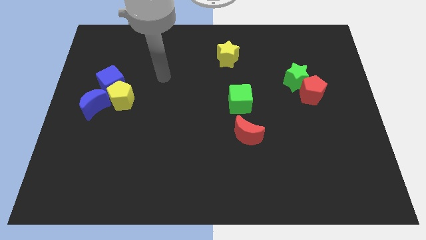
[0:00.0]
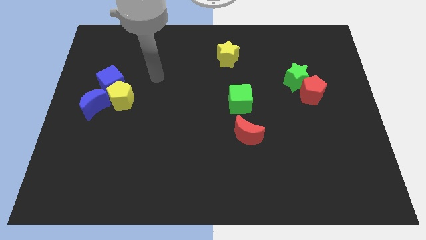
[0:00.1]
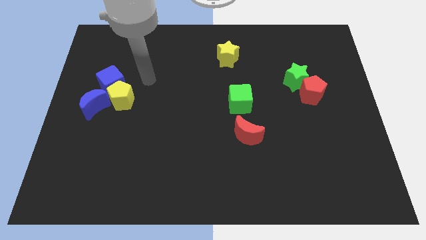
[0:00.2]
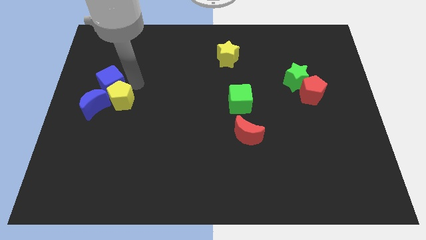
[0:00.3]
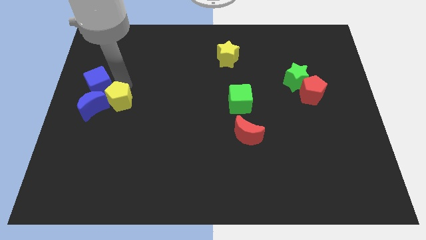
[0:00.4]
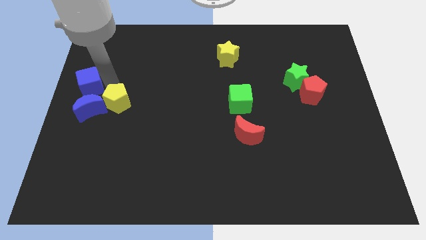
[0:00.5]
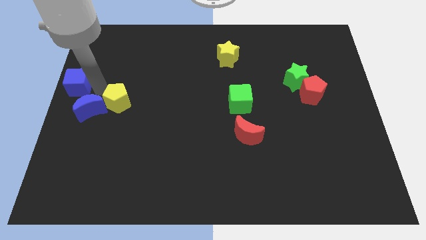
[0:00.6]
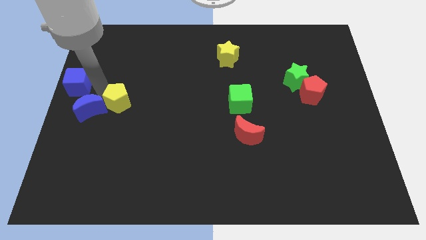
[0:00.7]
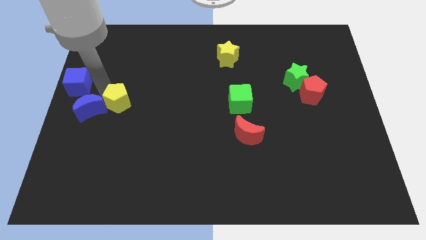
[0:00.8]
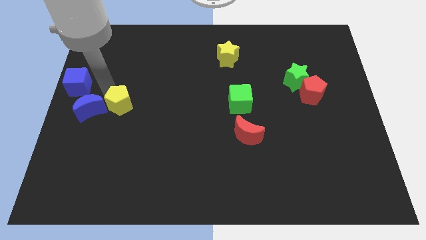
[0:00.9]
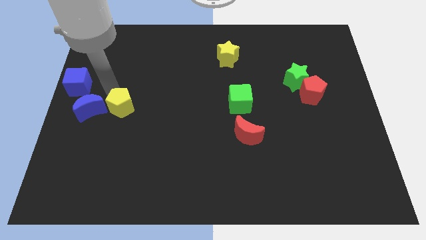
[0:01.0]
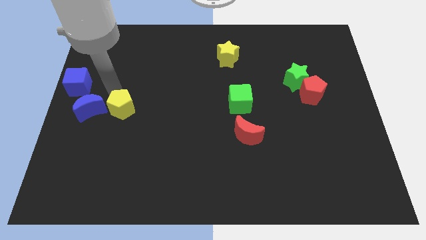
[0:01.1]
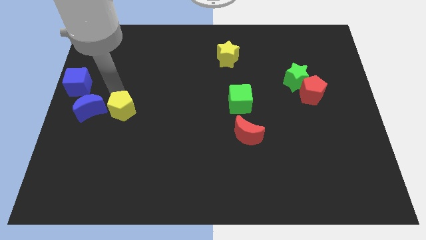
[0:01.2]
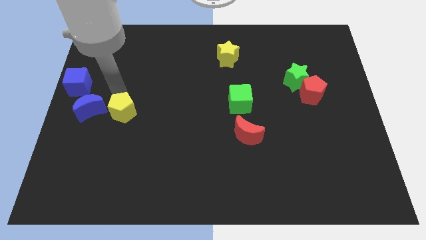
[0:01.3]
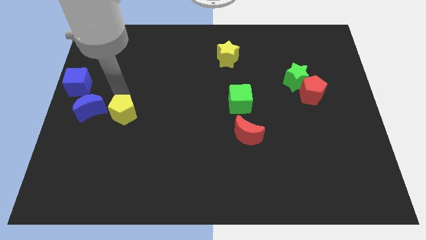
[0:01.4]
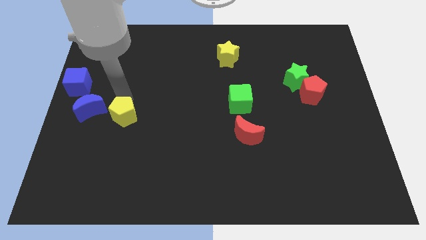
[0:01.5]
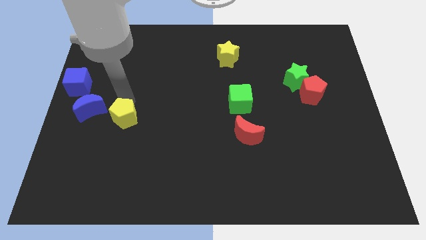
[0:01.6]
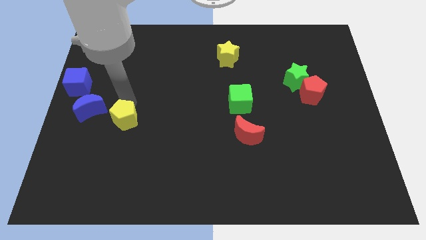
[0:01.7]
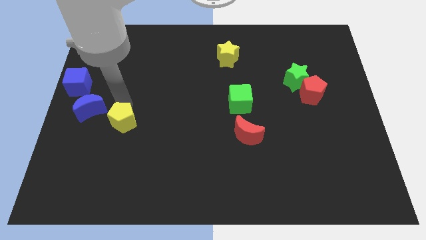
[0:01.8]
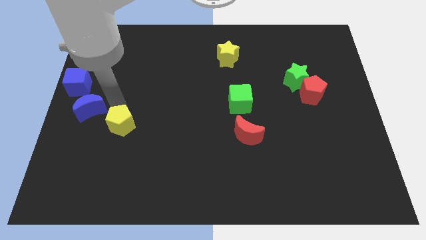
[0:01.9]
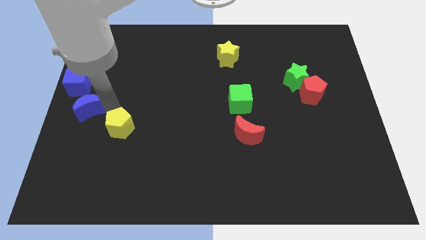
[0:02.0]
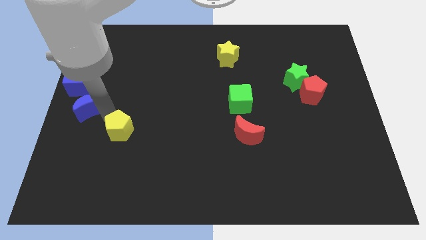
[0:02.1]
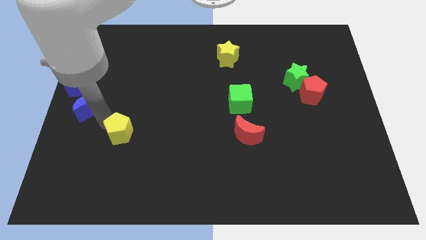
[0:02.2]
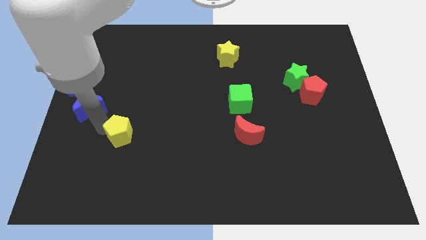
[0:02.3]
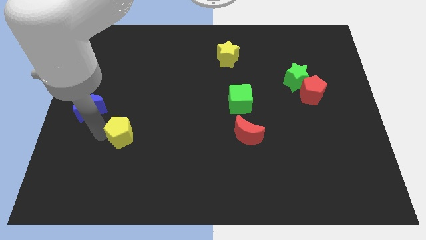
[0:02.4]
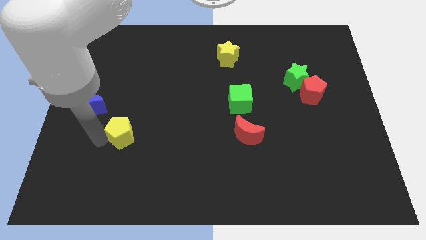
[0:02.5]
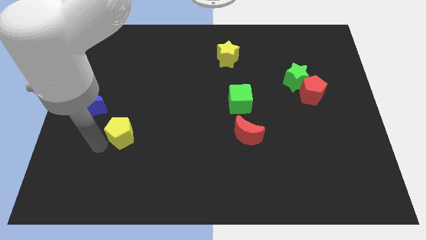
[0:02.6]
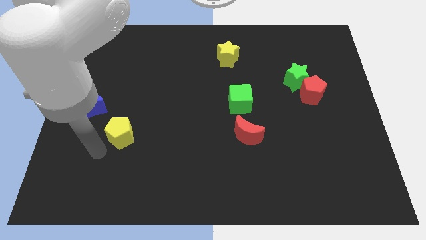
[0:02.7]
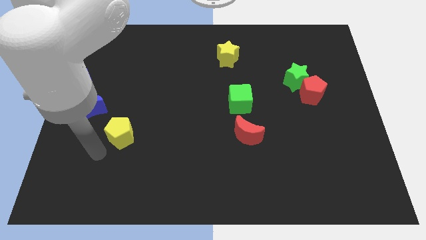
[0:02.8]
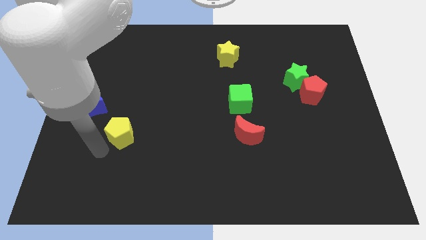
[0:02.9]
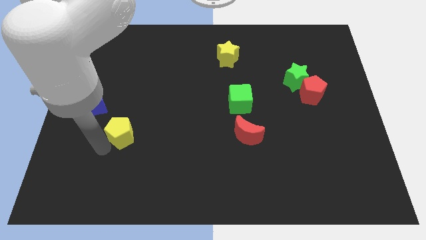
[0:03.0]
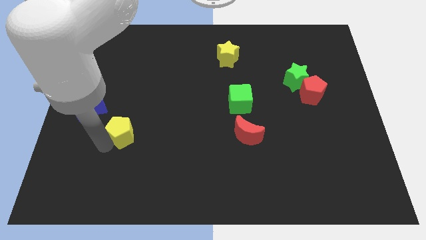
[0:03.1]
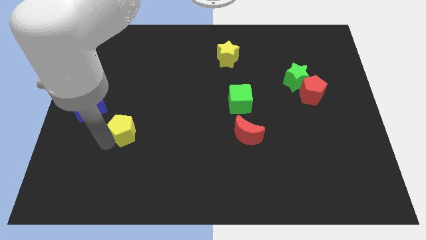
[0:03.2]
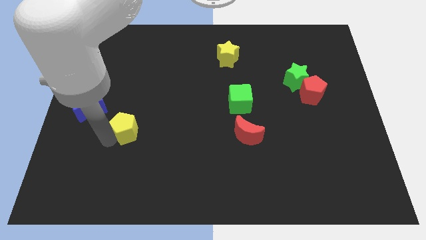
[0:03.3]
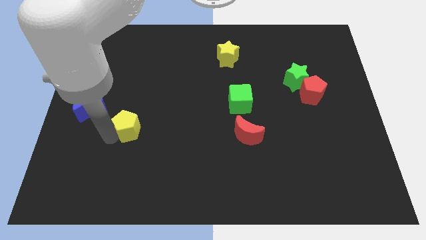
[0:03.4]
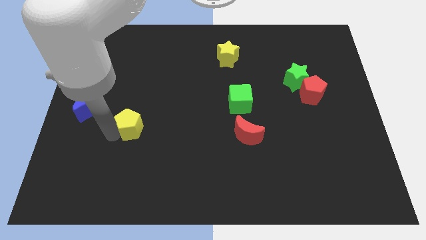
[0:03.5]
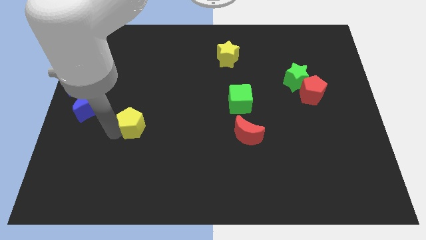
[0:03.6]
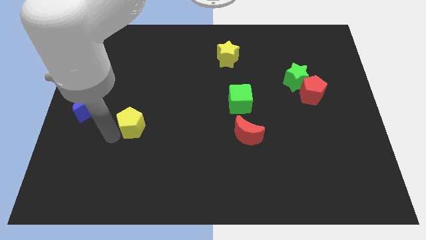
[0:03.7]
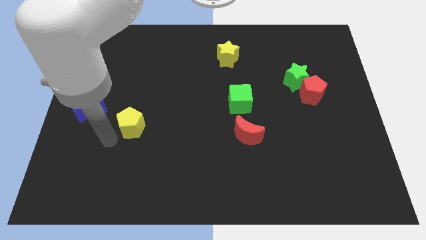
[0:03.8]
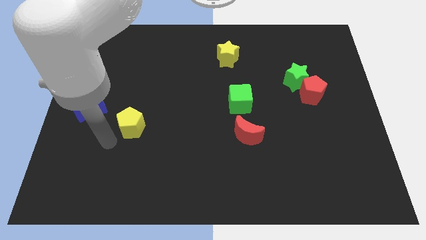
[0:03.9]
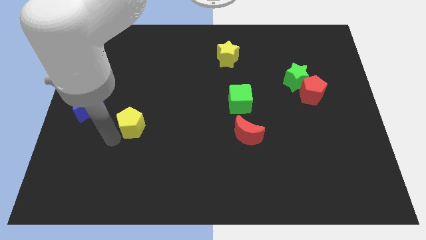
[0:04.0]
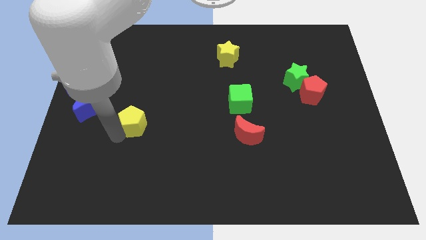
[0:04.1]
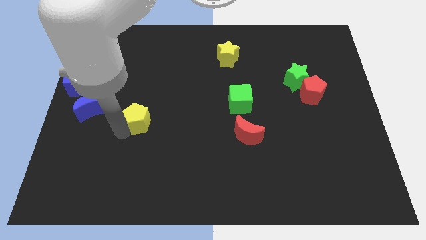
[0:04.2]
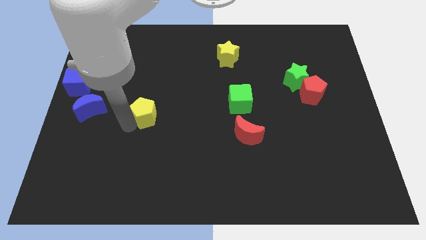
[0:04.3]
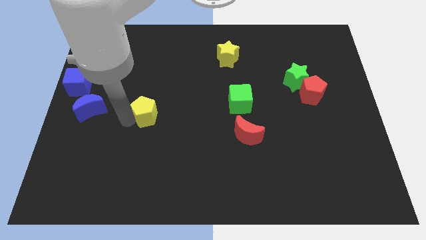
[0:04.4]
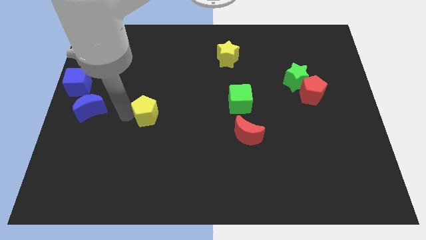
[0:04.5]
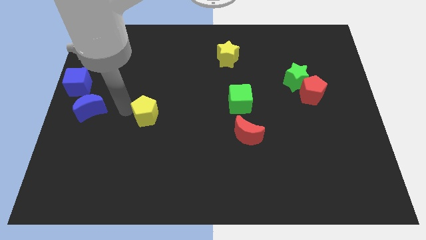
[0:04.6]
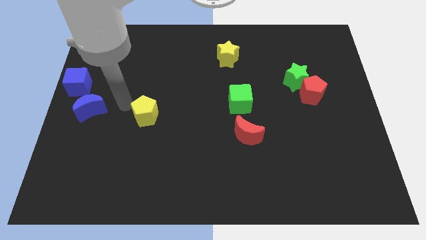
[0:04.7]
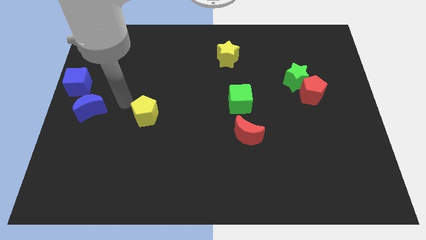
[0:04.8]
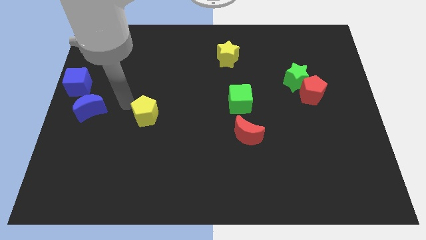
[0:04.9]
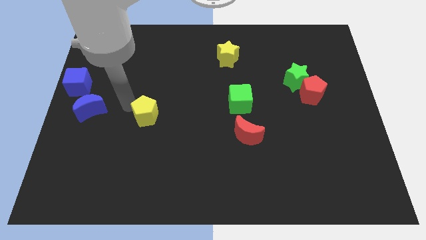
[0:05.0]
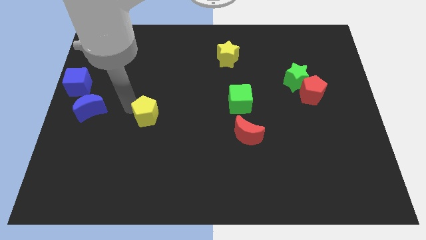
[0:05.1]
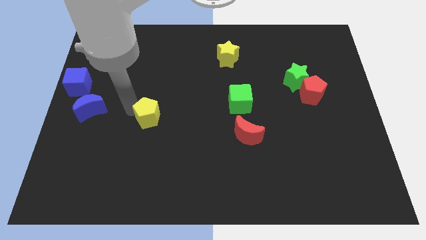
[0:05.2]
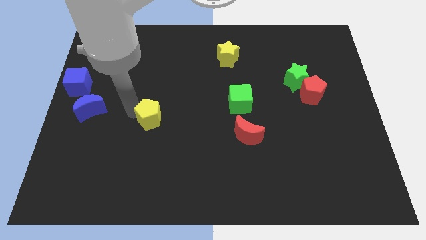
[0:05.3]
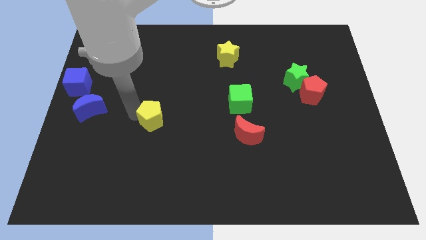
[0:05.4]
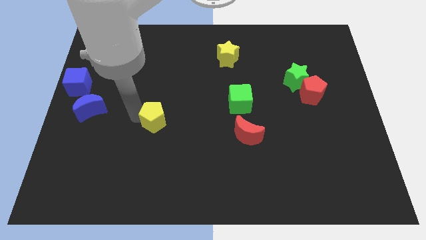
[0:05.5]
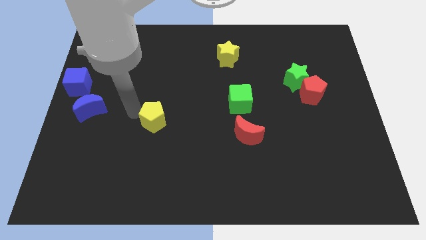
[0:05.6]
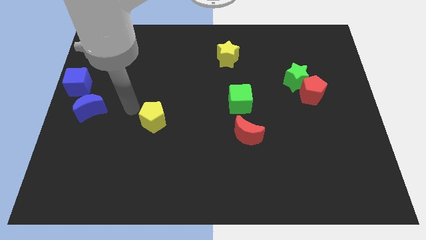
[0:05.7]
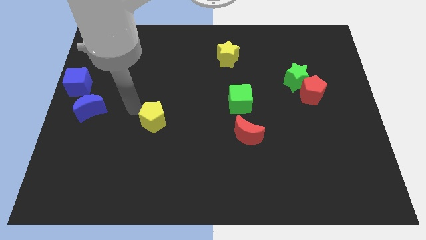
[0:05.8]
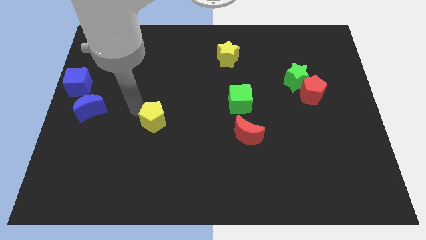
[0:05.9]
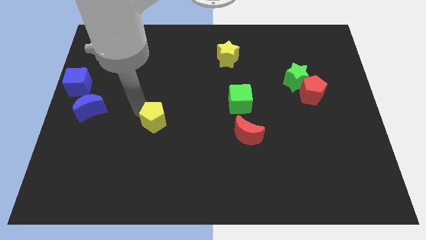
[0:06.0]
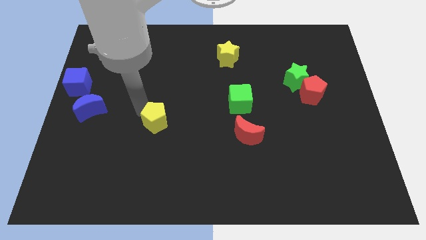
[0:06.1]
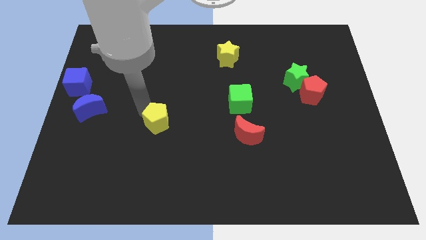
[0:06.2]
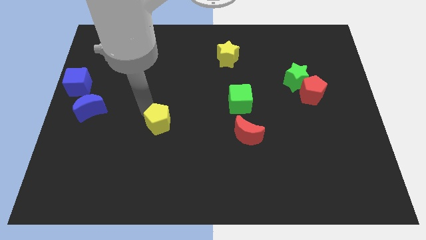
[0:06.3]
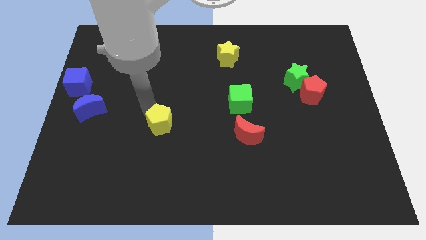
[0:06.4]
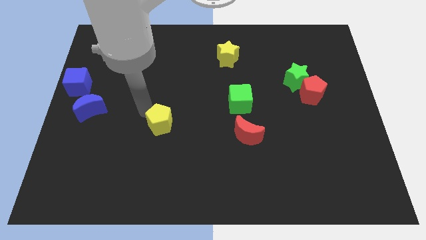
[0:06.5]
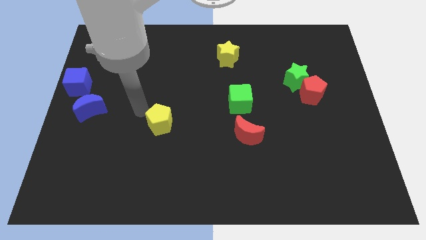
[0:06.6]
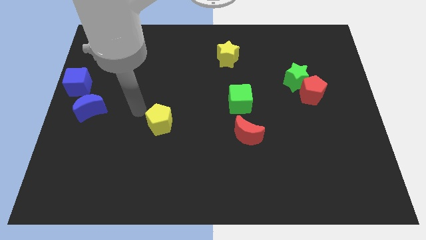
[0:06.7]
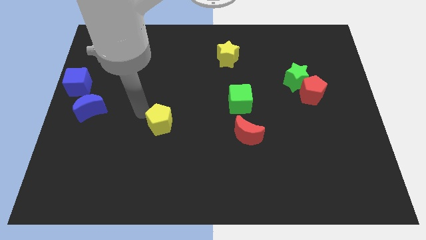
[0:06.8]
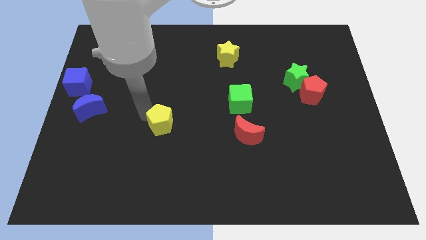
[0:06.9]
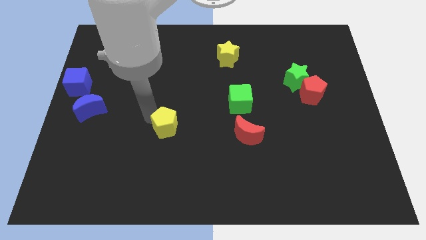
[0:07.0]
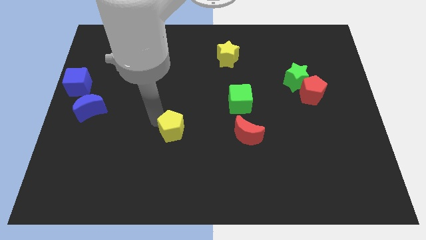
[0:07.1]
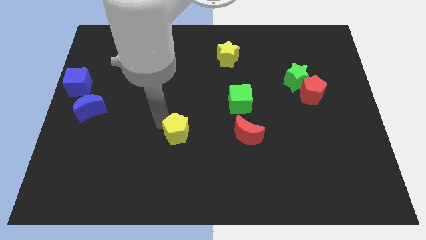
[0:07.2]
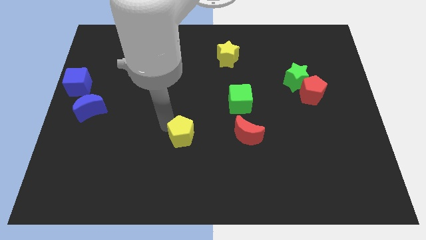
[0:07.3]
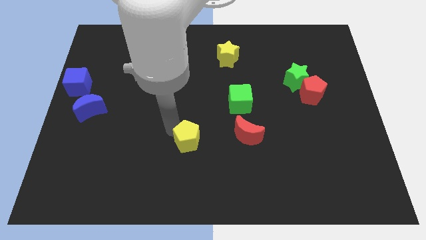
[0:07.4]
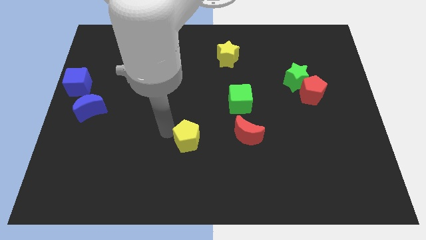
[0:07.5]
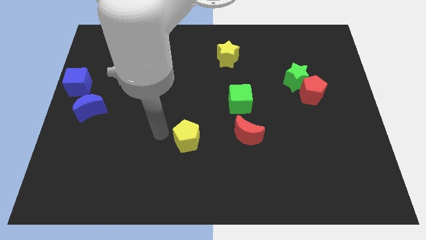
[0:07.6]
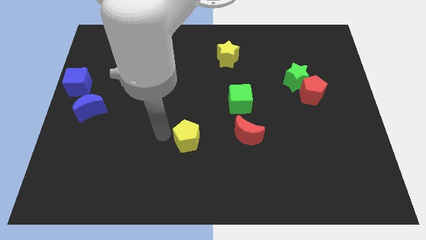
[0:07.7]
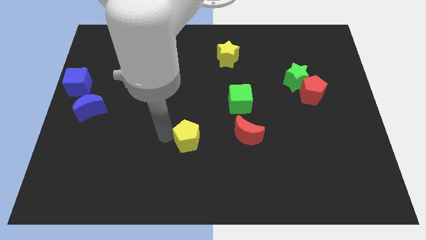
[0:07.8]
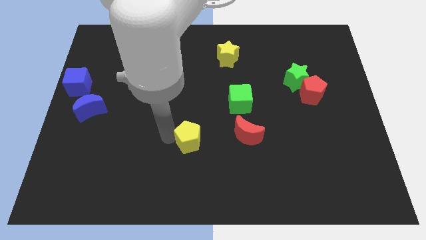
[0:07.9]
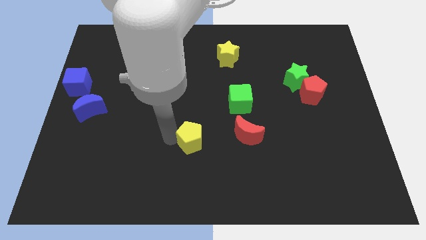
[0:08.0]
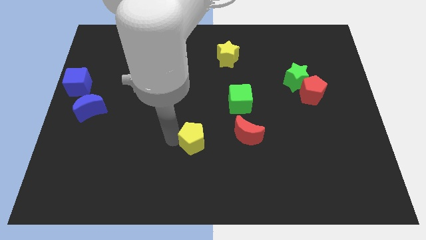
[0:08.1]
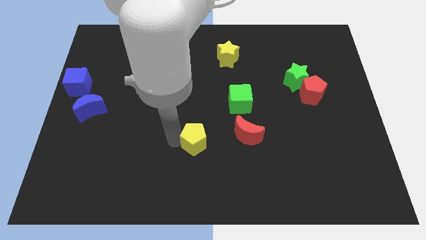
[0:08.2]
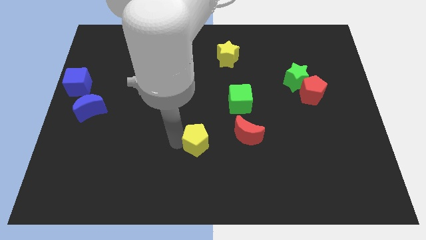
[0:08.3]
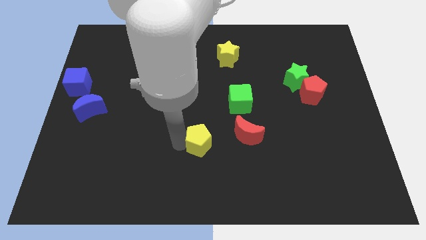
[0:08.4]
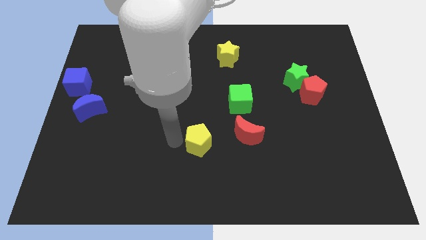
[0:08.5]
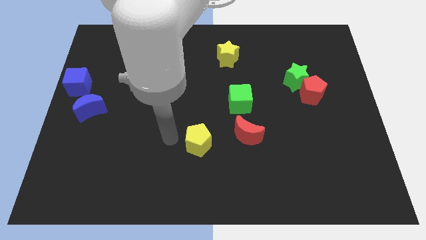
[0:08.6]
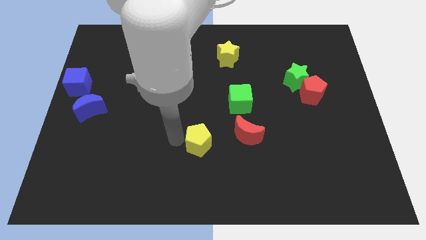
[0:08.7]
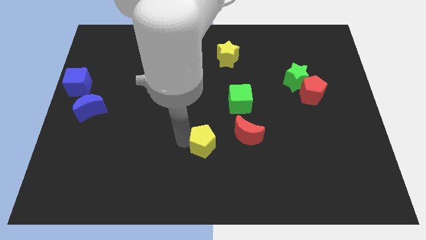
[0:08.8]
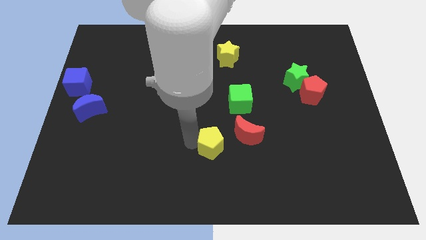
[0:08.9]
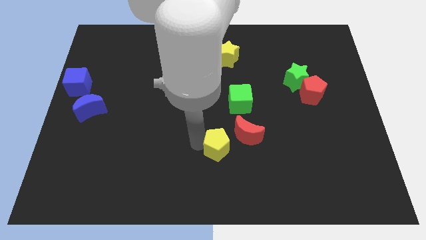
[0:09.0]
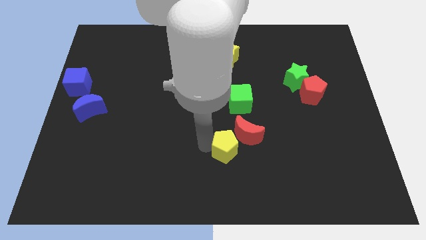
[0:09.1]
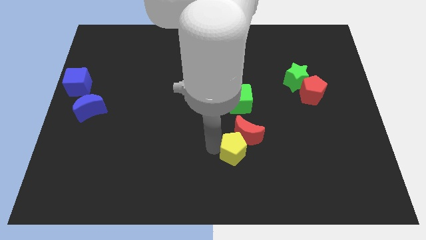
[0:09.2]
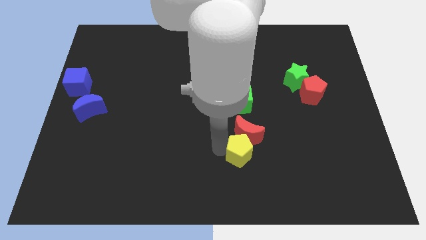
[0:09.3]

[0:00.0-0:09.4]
push the yellow pentagon to the bottom right side of the red moon
